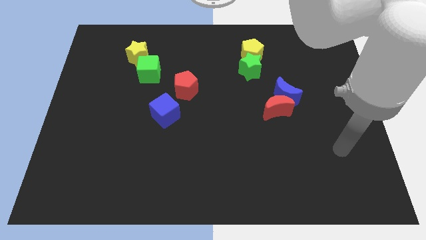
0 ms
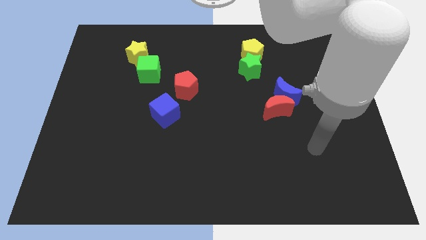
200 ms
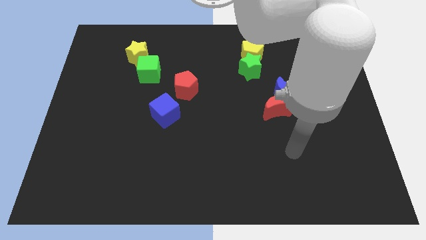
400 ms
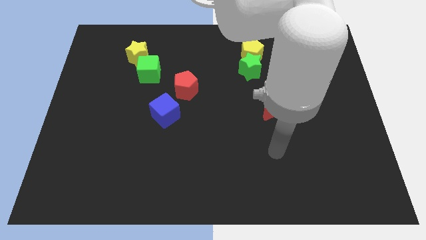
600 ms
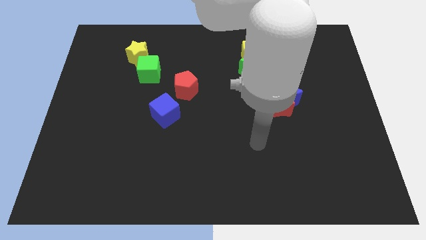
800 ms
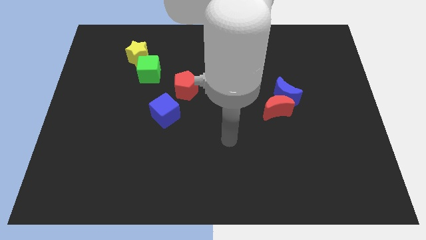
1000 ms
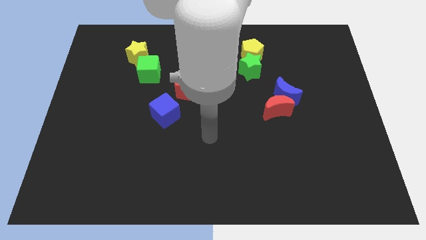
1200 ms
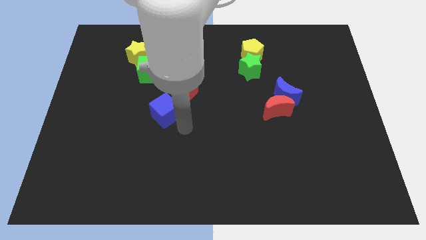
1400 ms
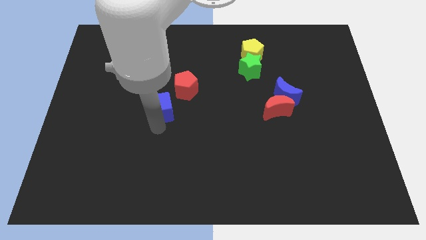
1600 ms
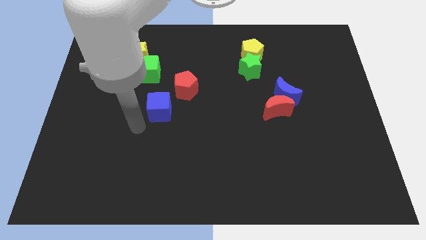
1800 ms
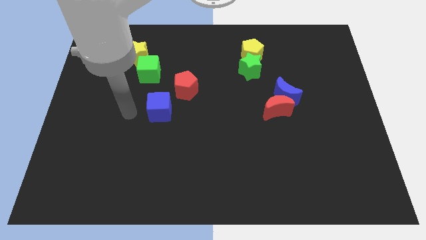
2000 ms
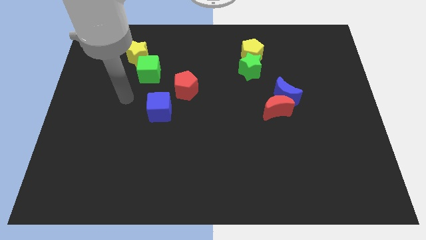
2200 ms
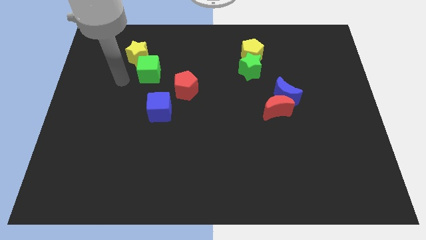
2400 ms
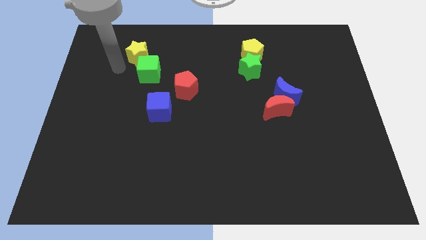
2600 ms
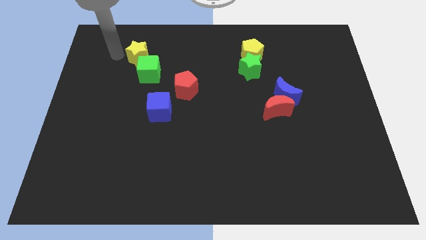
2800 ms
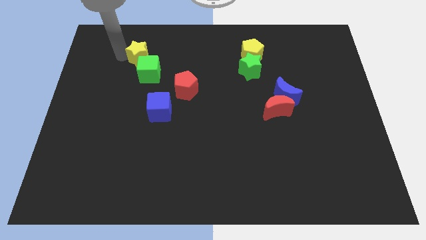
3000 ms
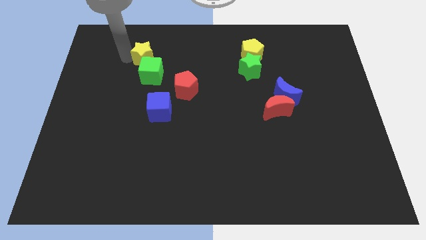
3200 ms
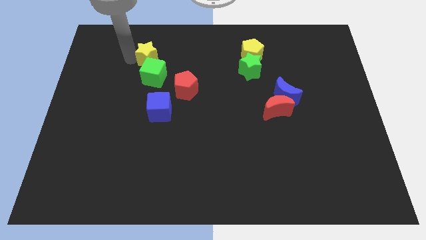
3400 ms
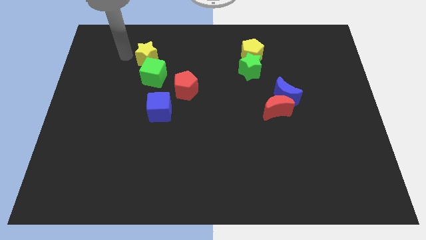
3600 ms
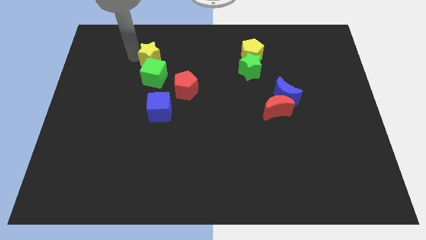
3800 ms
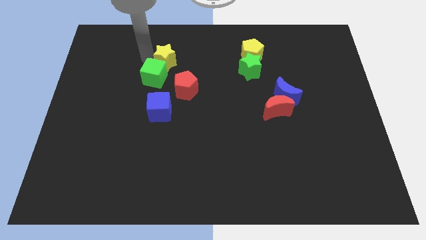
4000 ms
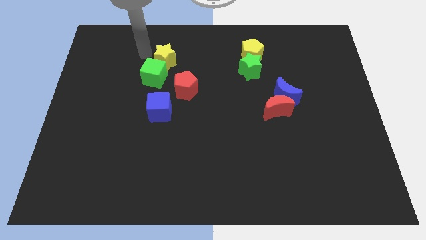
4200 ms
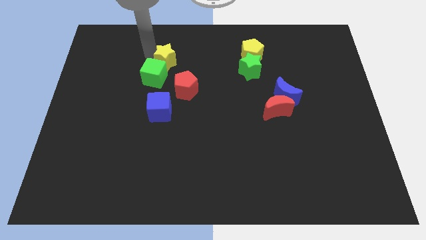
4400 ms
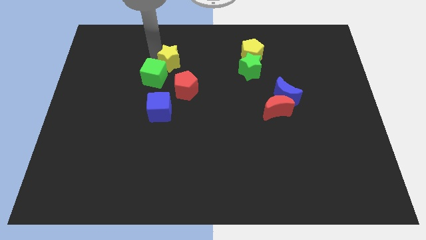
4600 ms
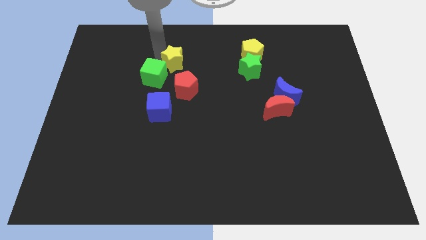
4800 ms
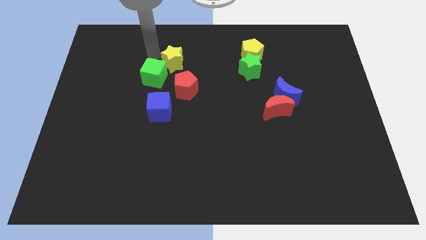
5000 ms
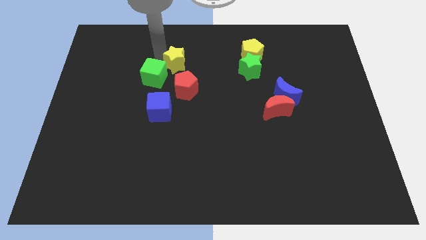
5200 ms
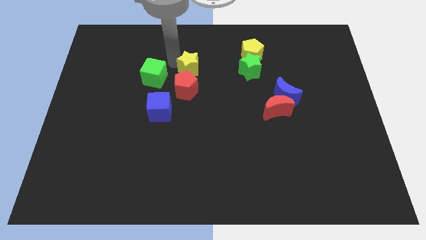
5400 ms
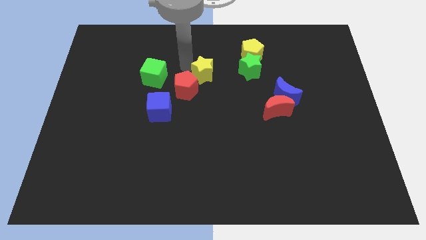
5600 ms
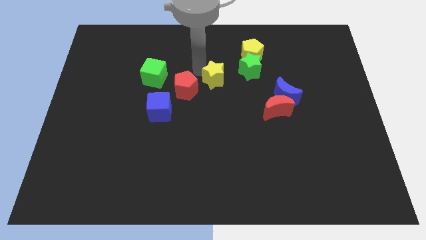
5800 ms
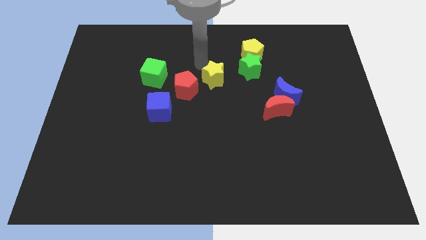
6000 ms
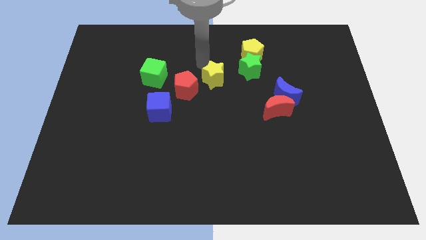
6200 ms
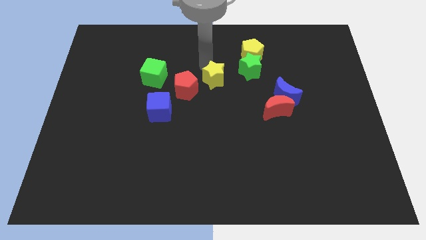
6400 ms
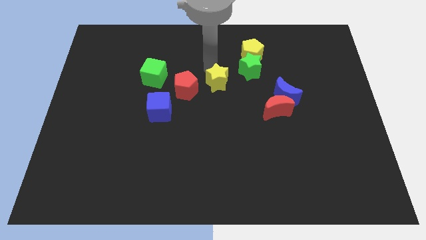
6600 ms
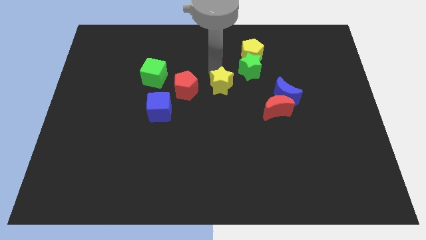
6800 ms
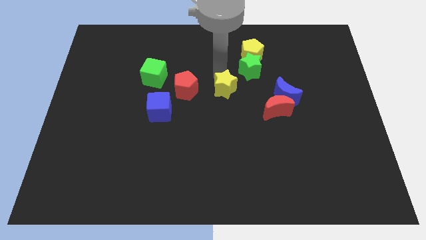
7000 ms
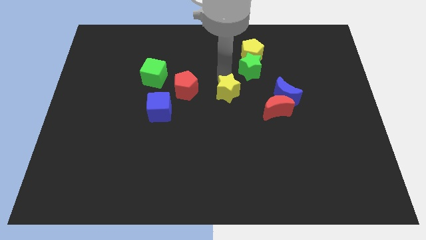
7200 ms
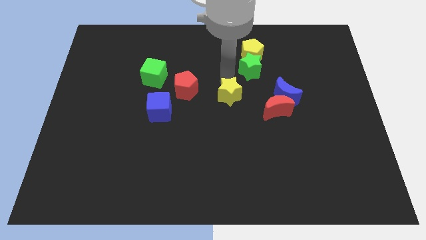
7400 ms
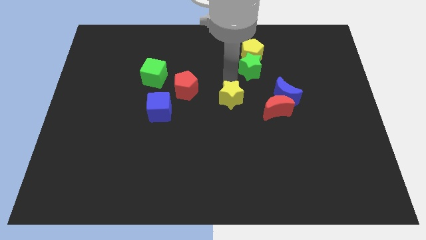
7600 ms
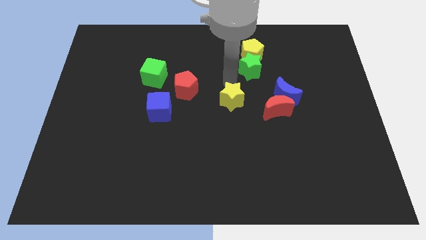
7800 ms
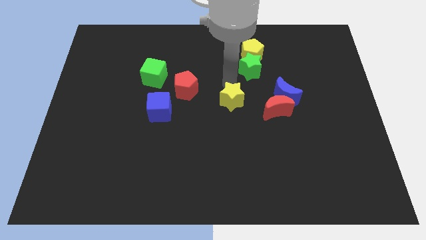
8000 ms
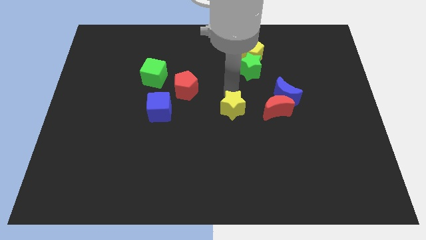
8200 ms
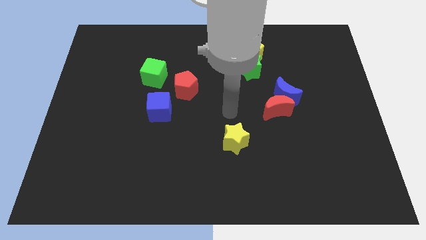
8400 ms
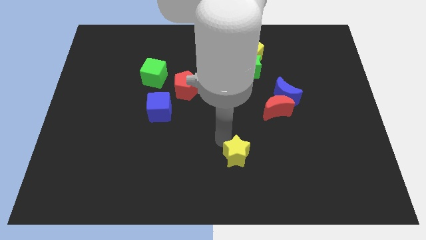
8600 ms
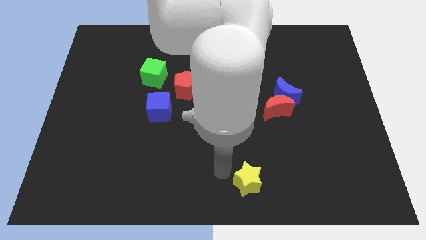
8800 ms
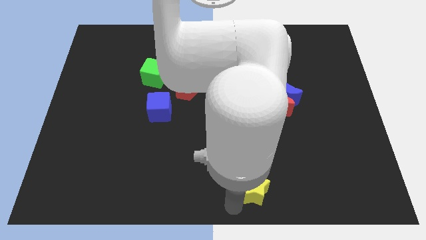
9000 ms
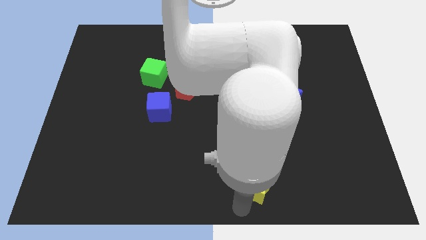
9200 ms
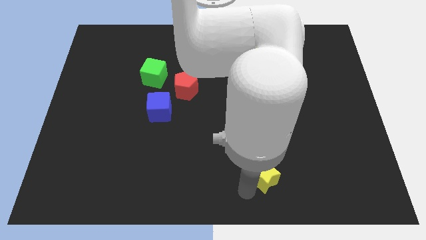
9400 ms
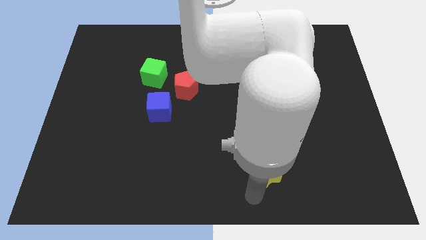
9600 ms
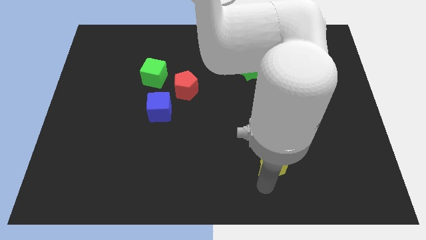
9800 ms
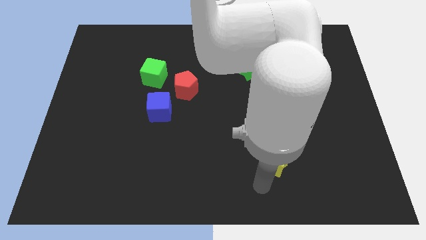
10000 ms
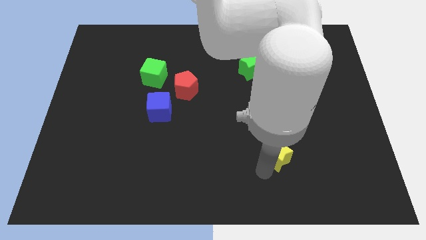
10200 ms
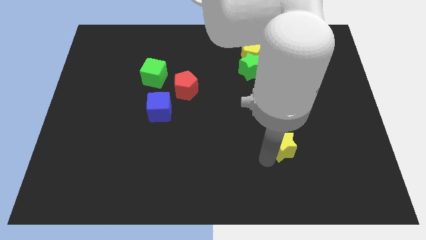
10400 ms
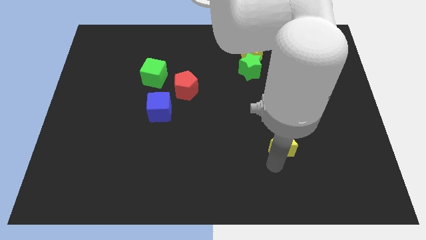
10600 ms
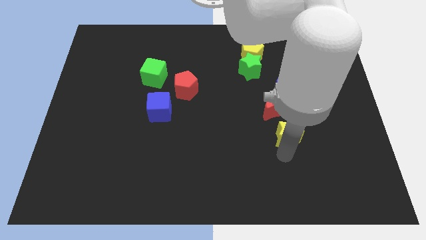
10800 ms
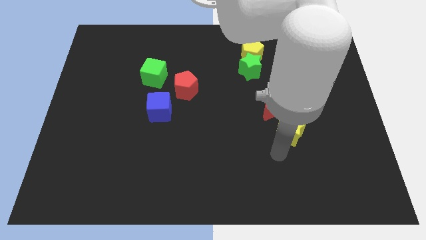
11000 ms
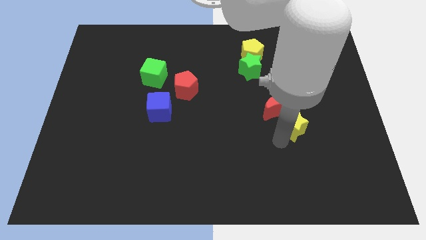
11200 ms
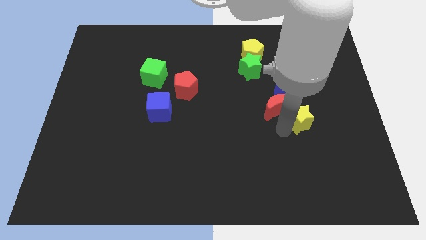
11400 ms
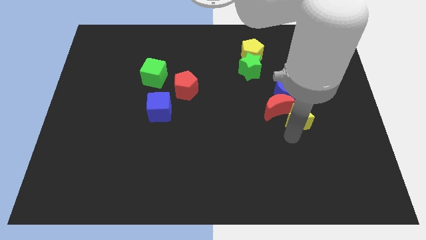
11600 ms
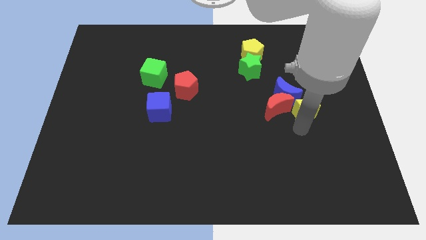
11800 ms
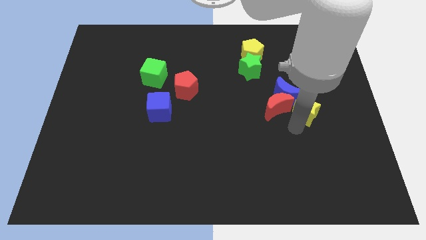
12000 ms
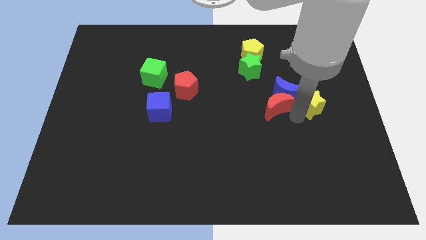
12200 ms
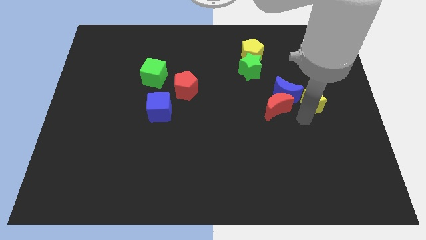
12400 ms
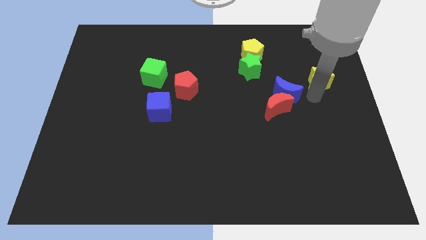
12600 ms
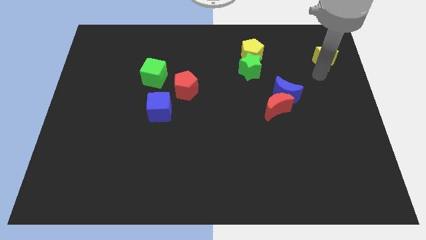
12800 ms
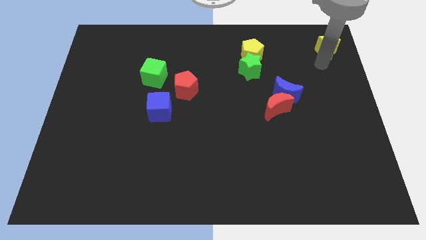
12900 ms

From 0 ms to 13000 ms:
move the yellow star to the upper right corner
